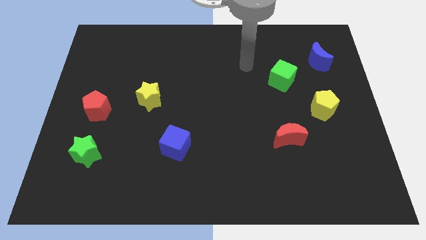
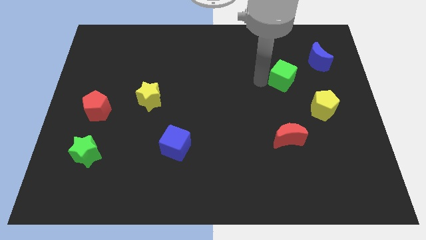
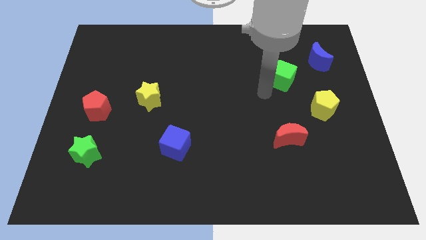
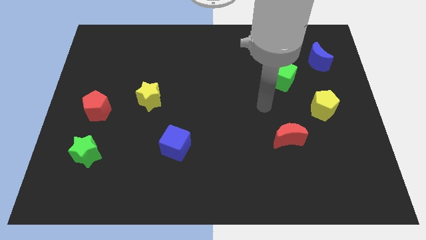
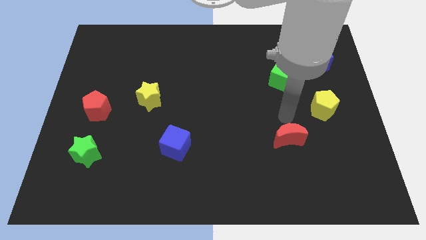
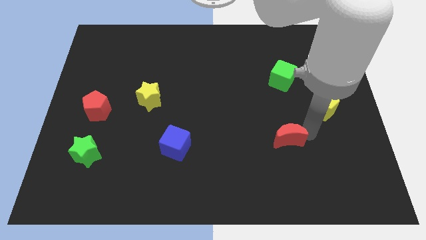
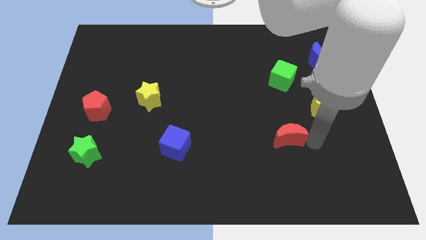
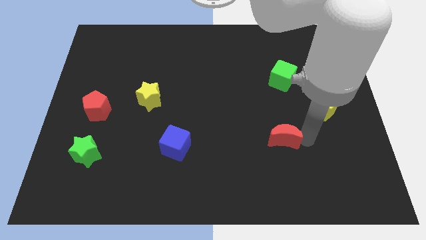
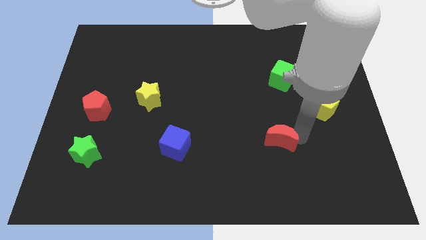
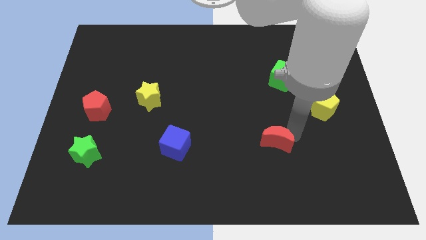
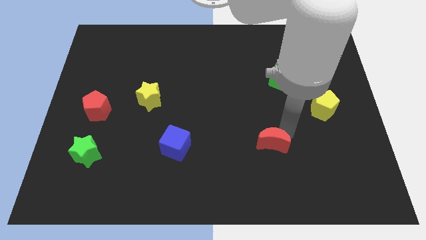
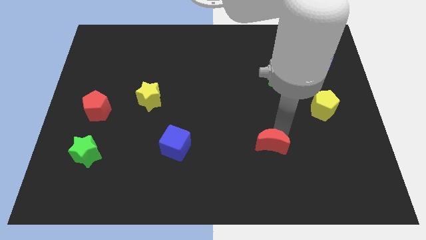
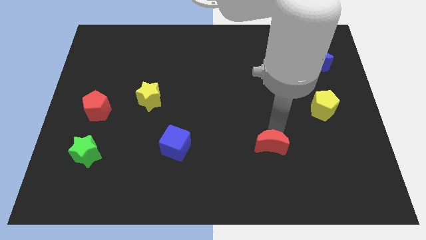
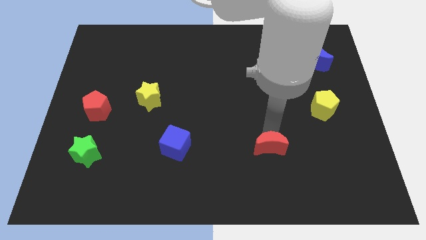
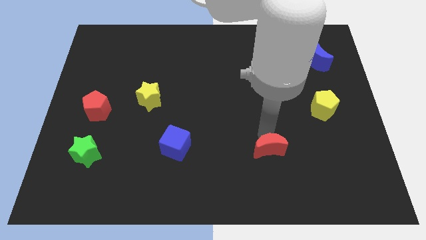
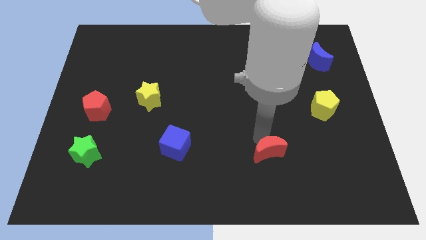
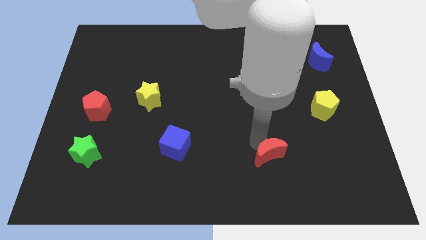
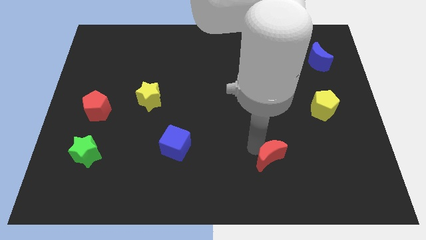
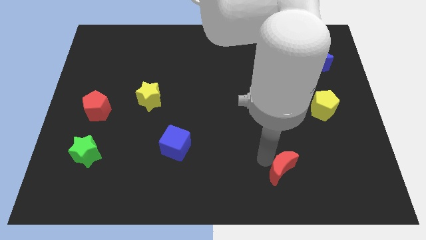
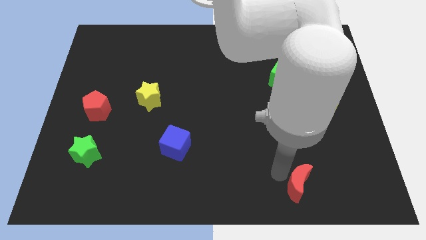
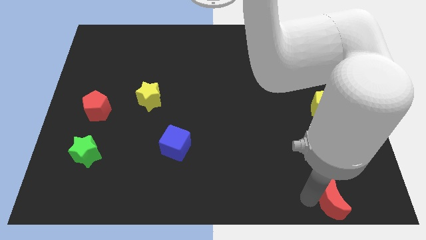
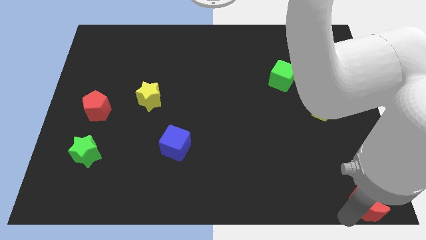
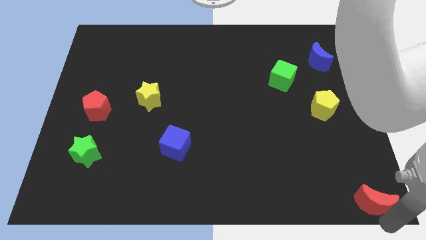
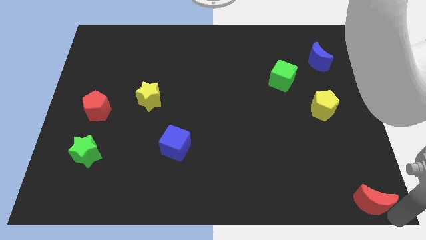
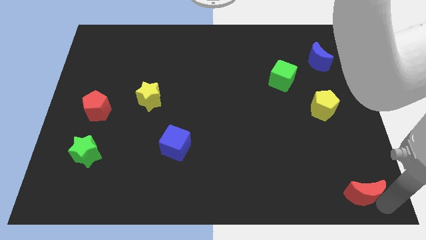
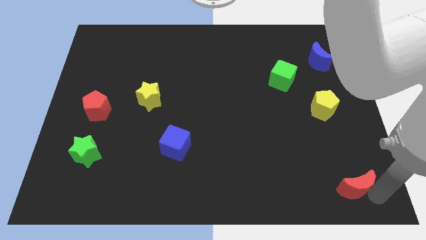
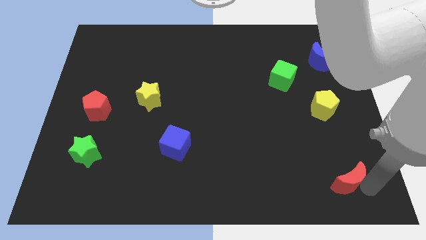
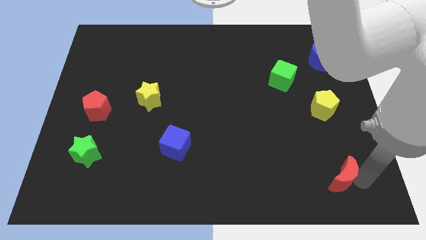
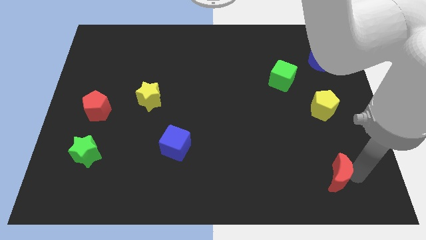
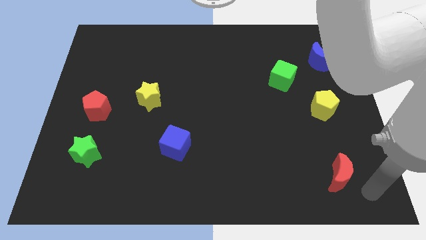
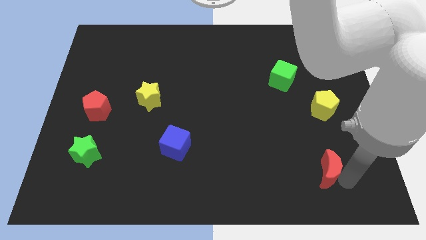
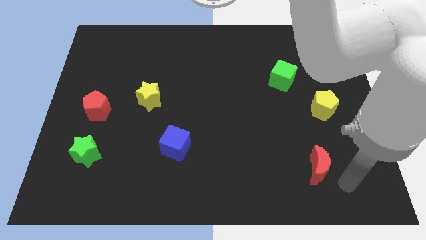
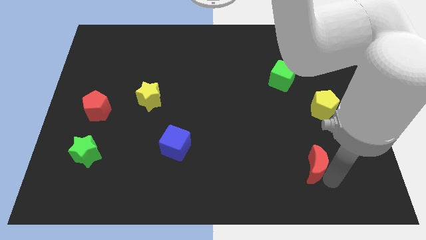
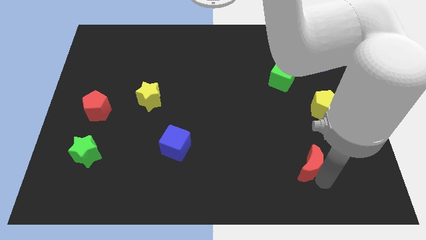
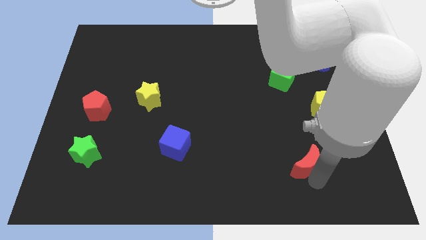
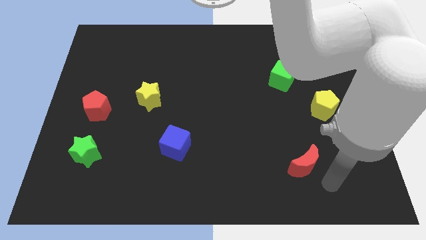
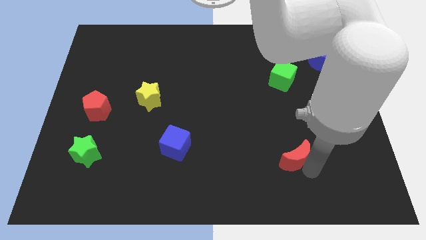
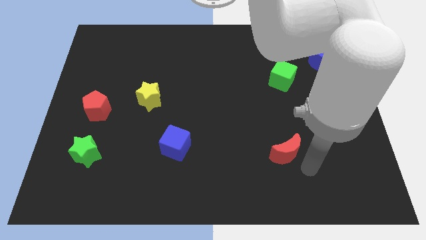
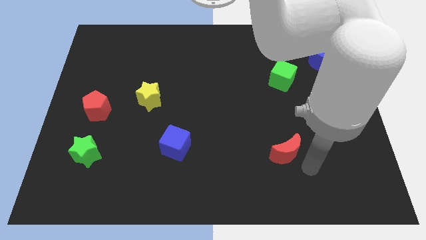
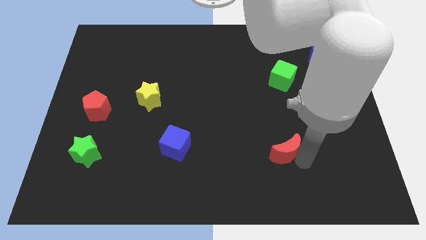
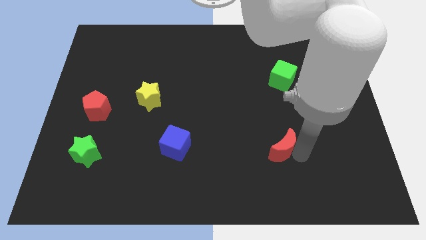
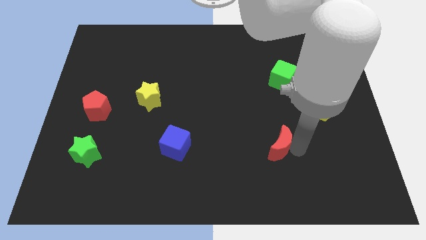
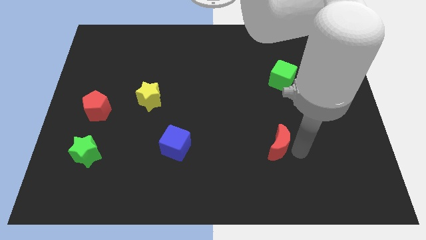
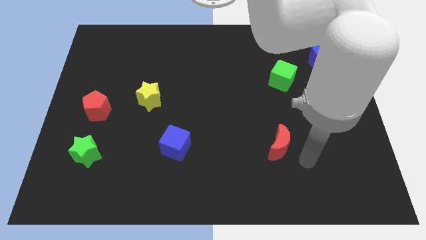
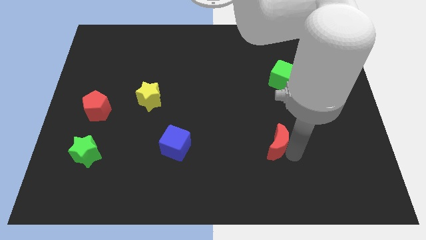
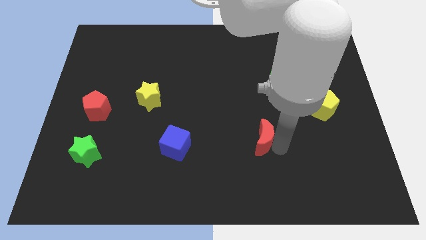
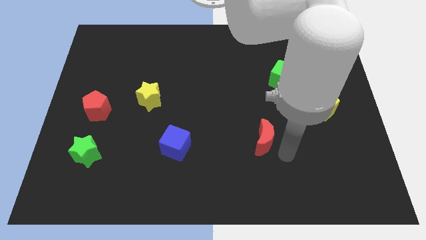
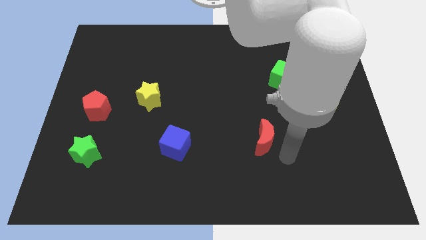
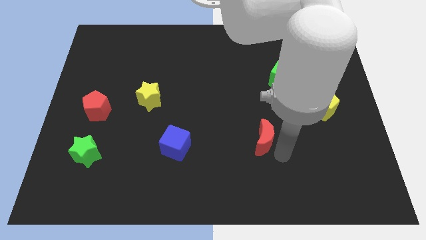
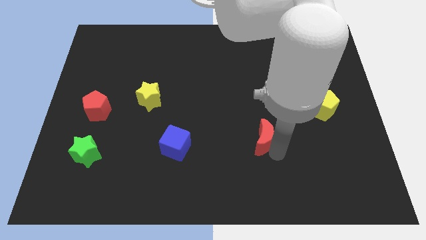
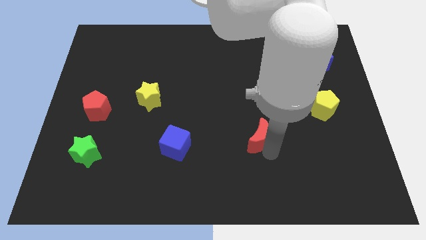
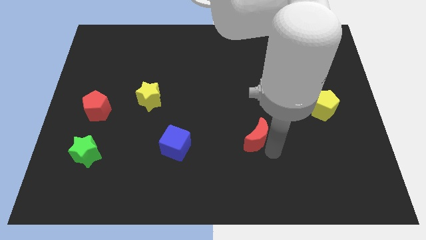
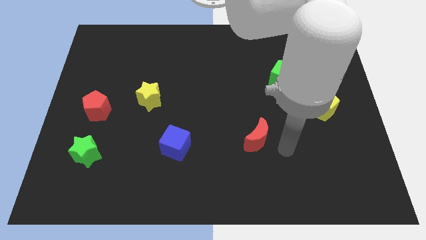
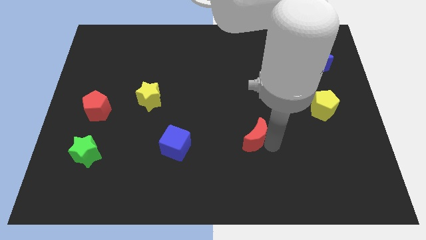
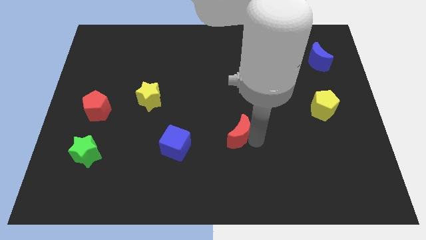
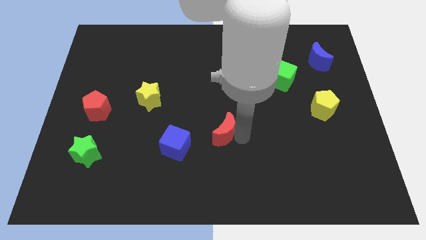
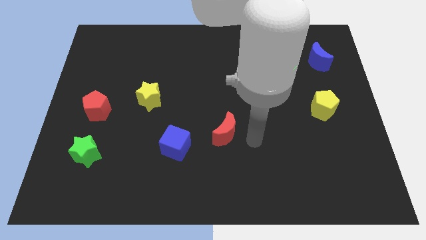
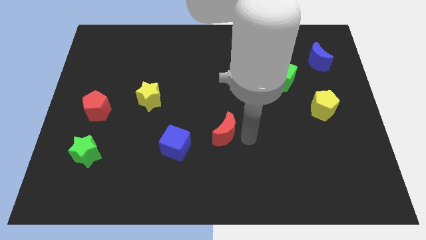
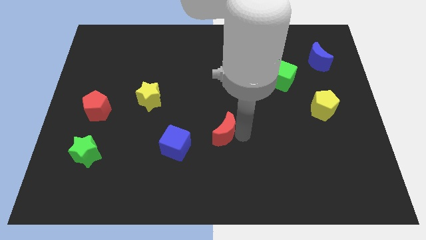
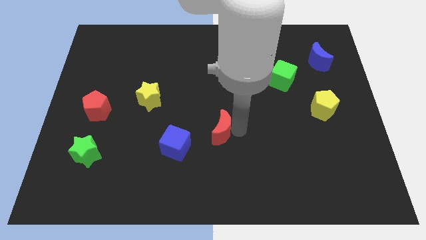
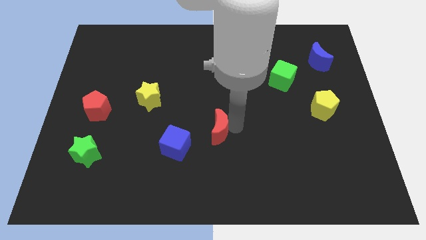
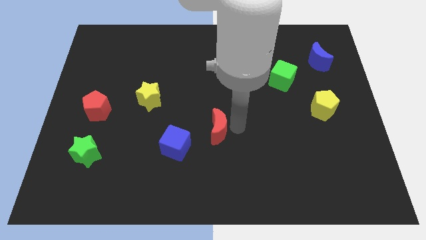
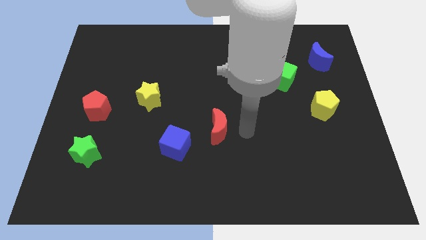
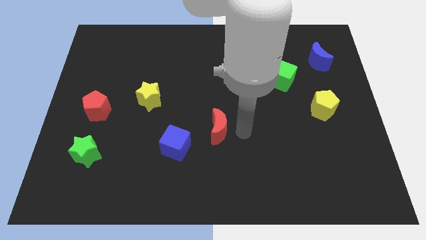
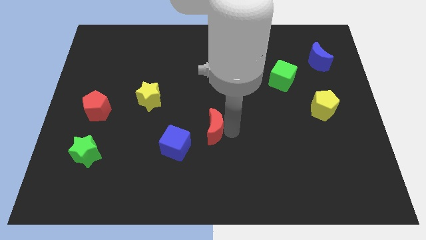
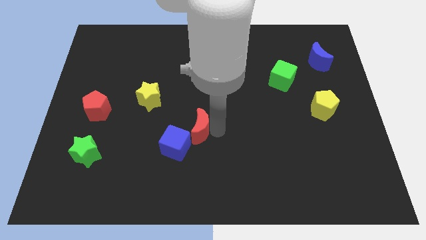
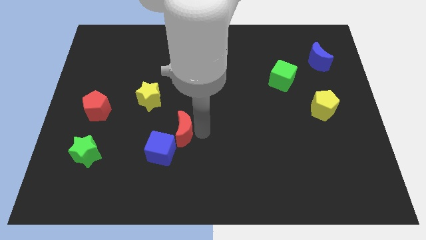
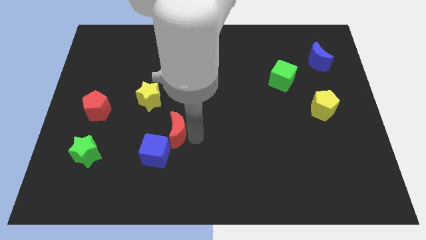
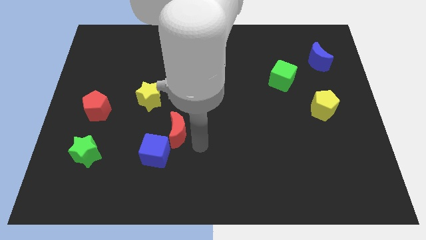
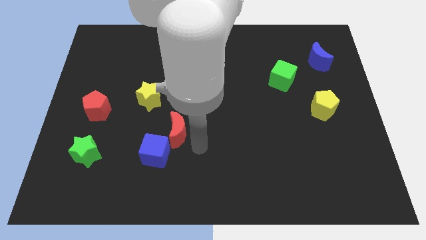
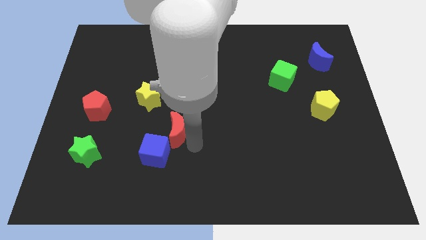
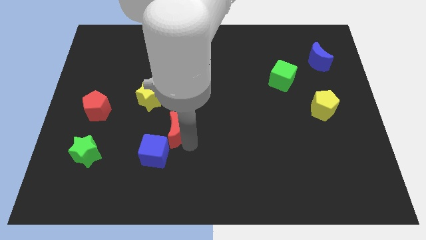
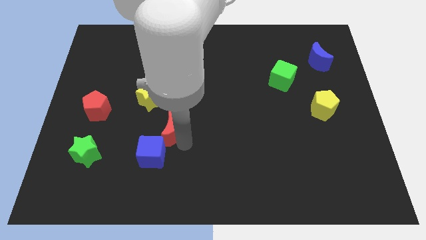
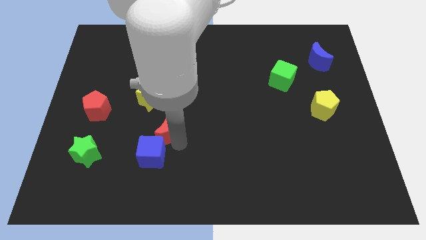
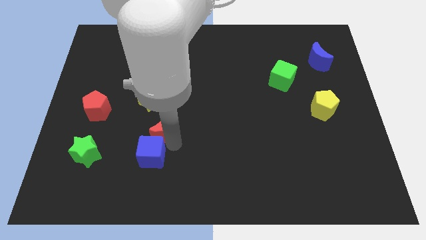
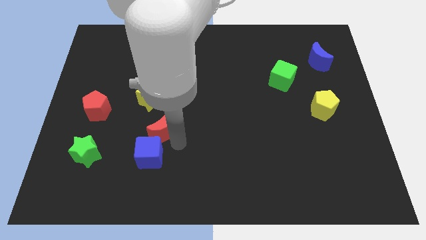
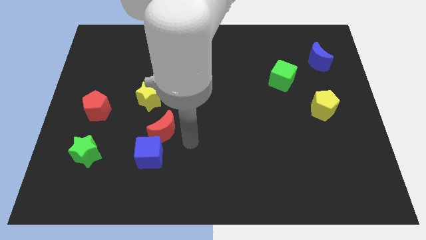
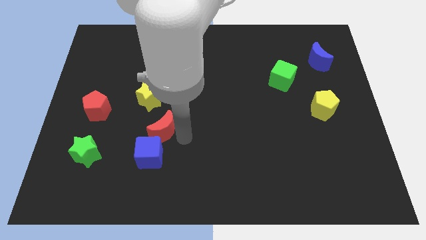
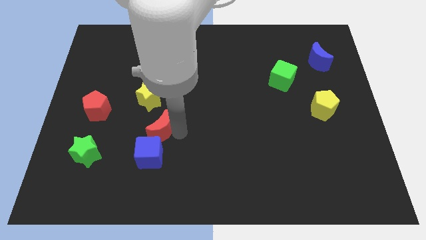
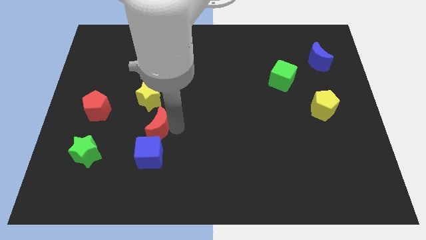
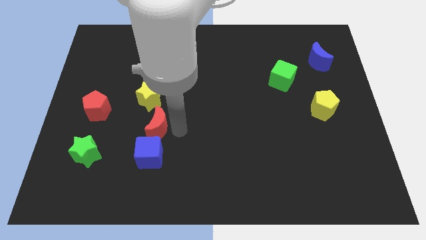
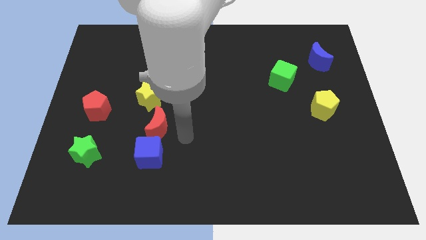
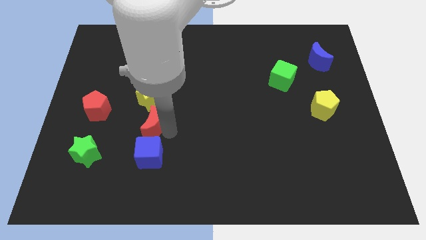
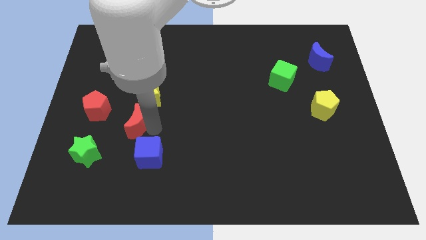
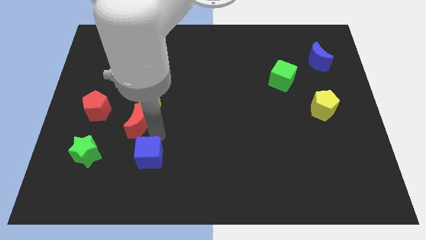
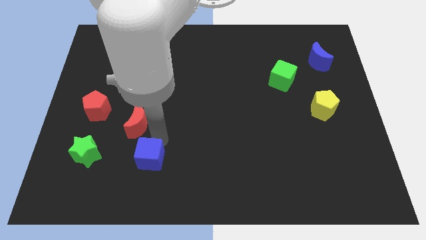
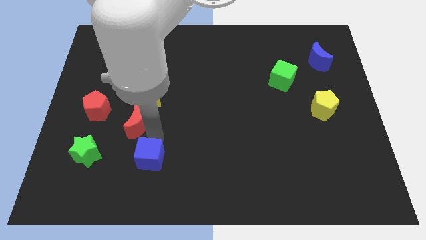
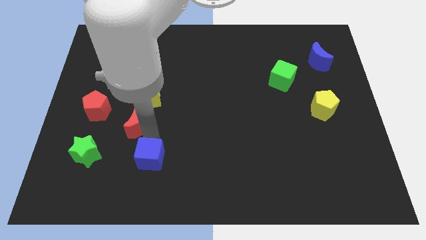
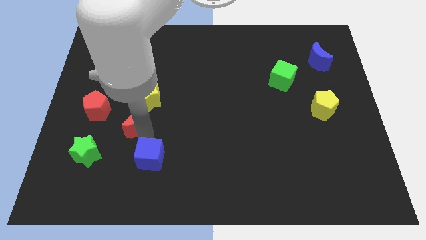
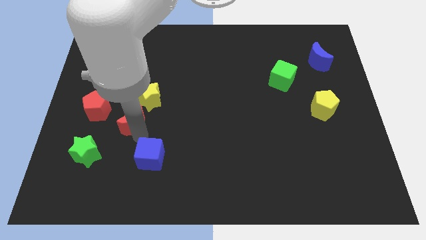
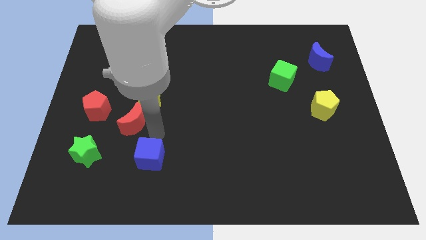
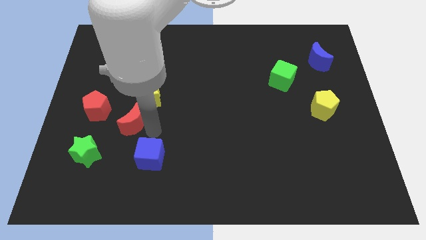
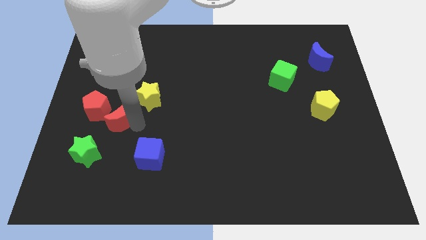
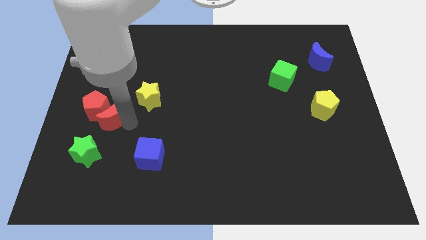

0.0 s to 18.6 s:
move the red moon towards the red pentagon
